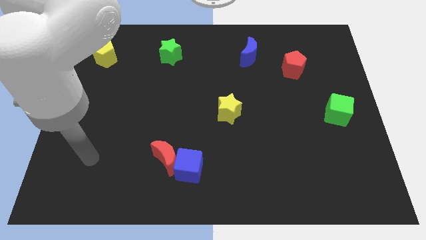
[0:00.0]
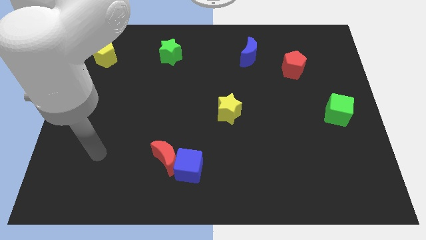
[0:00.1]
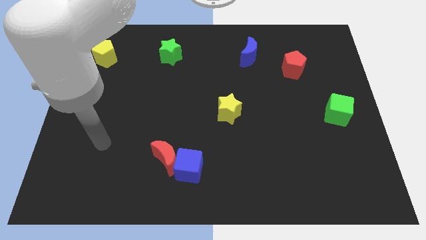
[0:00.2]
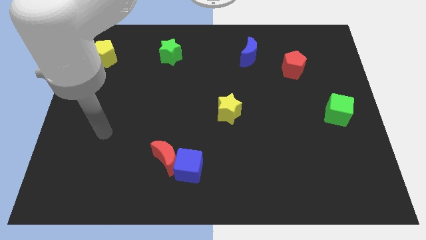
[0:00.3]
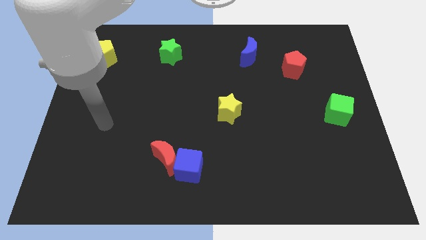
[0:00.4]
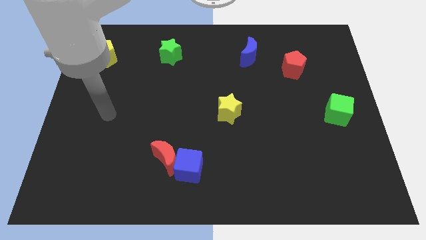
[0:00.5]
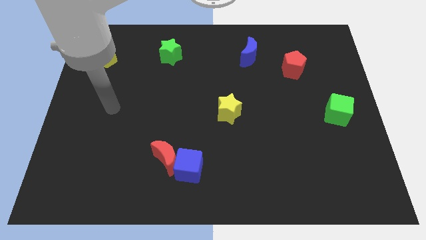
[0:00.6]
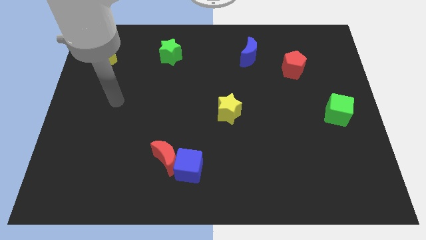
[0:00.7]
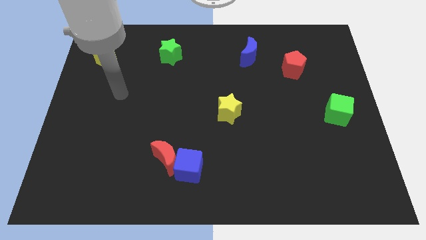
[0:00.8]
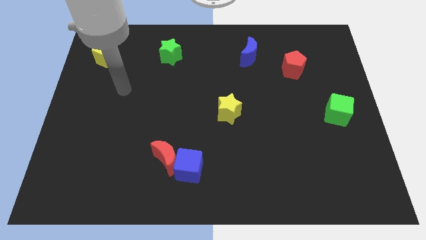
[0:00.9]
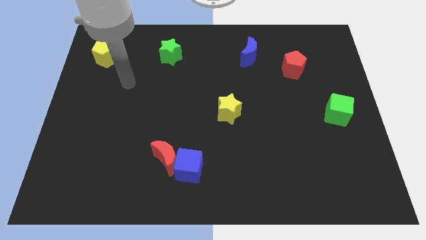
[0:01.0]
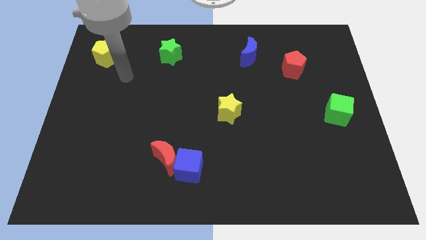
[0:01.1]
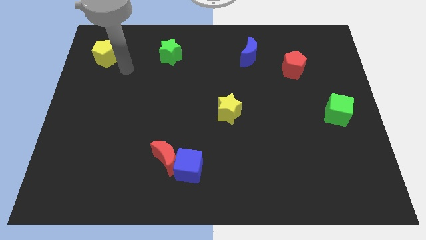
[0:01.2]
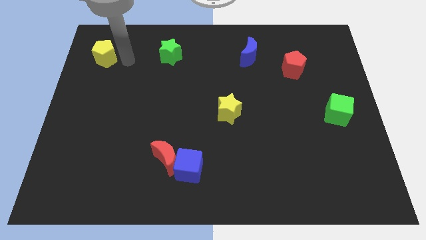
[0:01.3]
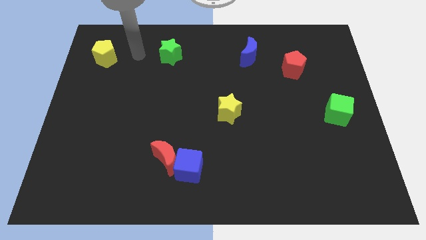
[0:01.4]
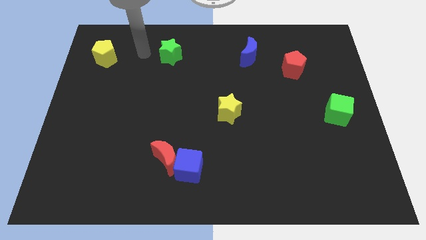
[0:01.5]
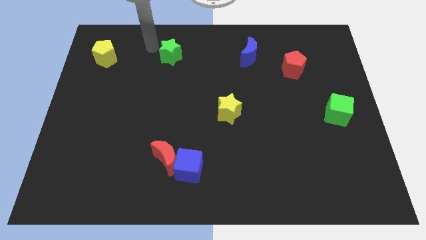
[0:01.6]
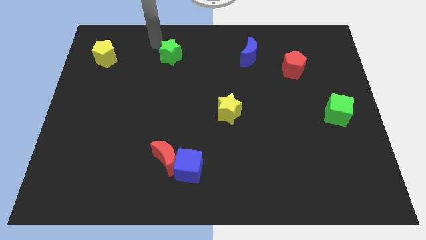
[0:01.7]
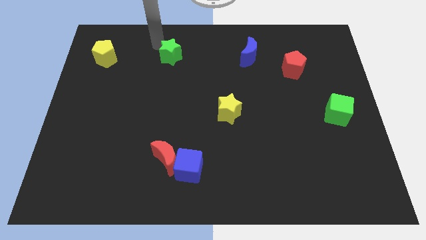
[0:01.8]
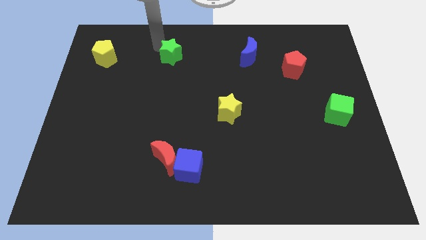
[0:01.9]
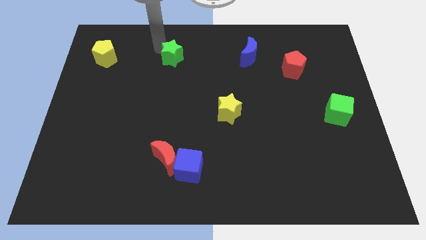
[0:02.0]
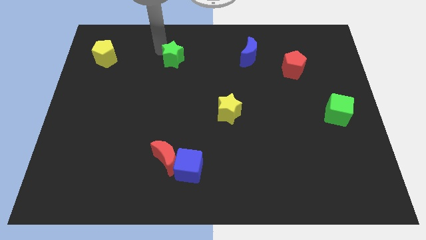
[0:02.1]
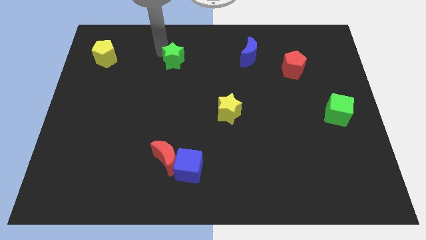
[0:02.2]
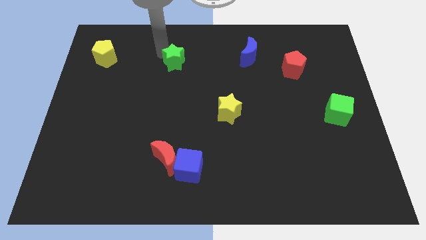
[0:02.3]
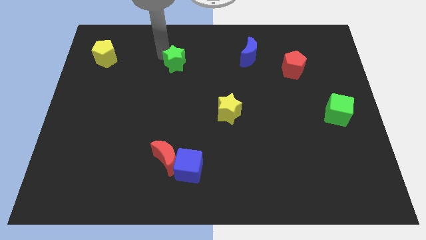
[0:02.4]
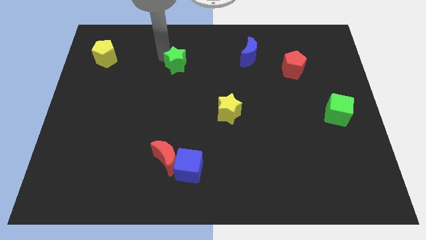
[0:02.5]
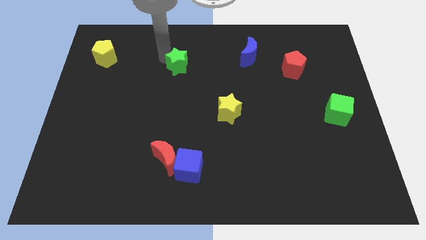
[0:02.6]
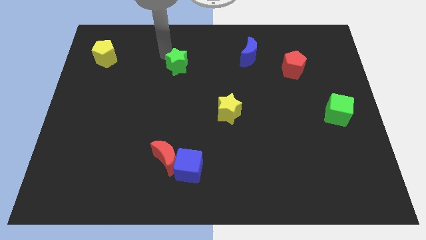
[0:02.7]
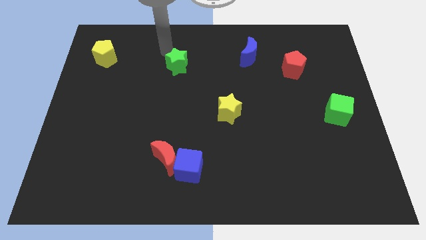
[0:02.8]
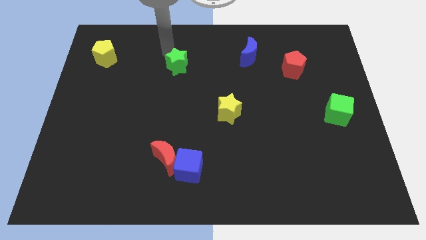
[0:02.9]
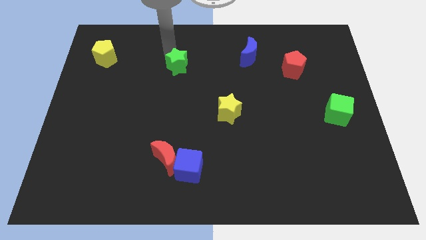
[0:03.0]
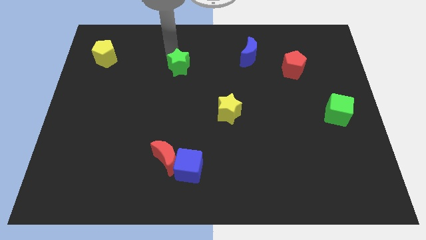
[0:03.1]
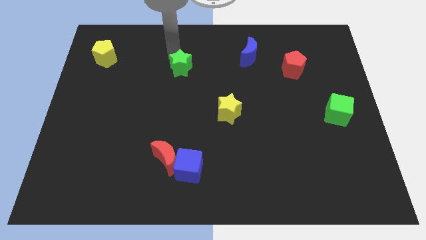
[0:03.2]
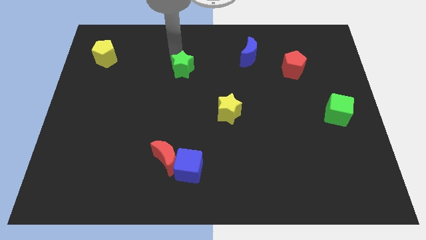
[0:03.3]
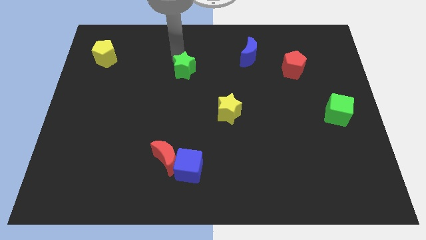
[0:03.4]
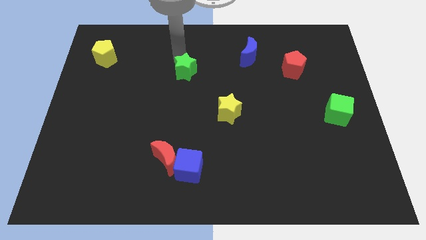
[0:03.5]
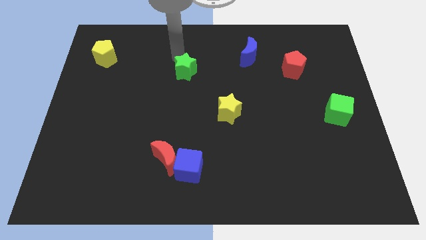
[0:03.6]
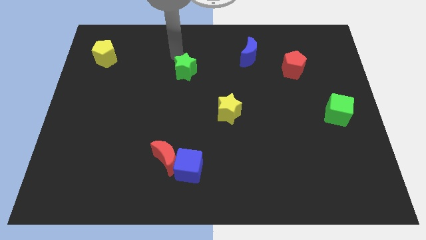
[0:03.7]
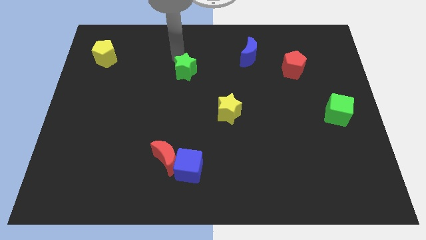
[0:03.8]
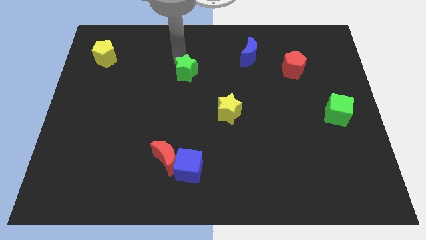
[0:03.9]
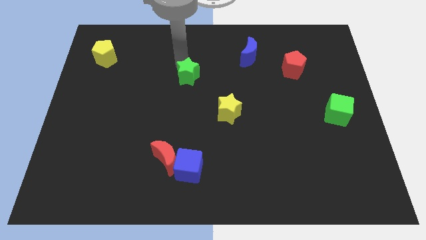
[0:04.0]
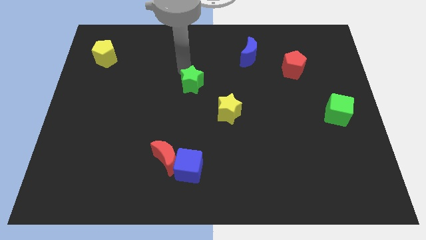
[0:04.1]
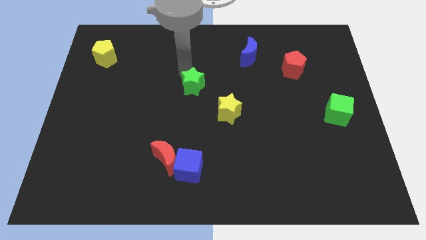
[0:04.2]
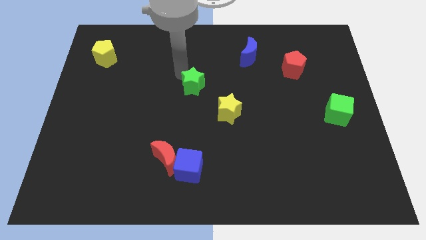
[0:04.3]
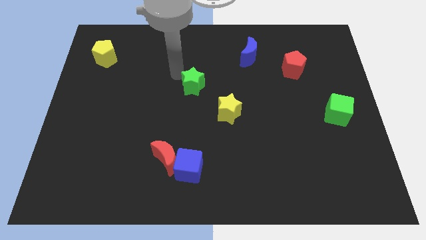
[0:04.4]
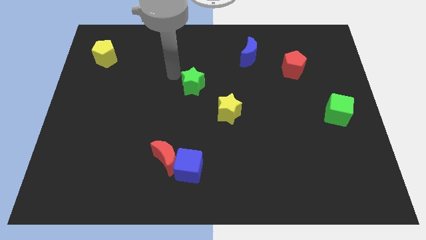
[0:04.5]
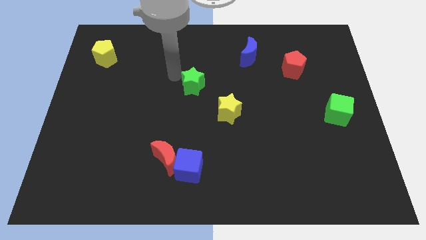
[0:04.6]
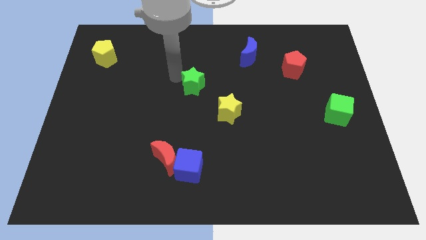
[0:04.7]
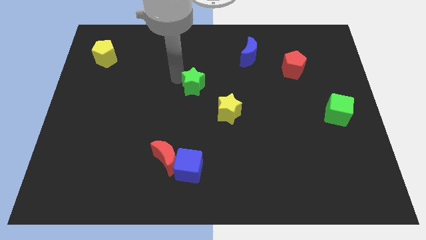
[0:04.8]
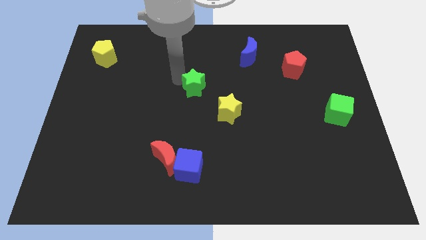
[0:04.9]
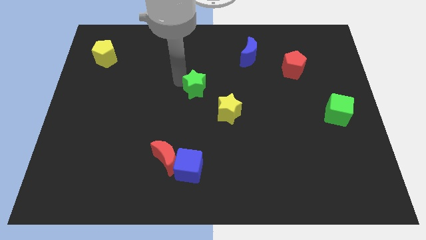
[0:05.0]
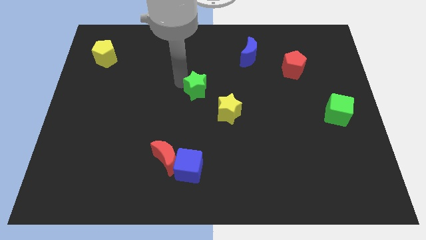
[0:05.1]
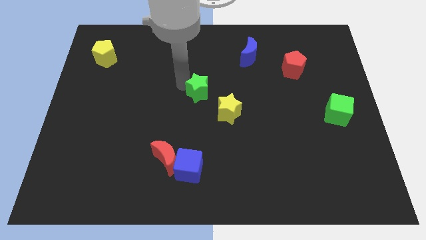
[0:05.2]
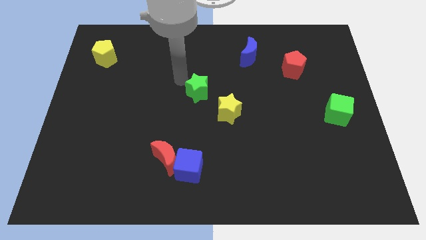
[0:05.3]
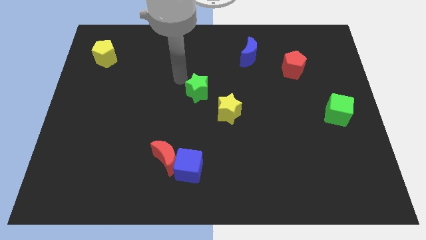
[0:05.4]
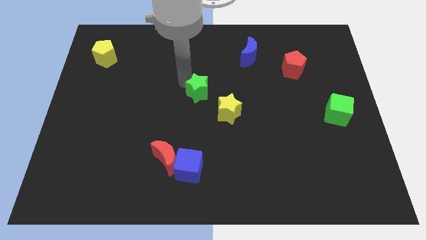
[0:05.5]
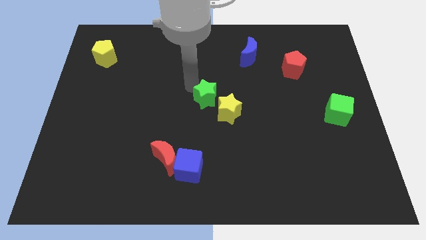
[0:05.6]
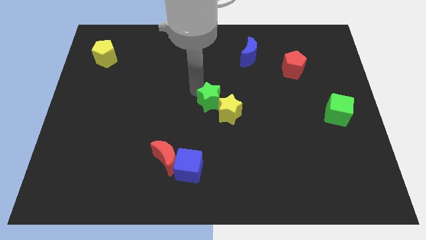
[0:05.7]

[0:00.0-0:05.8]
put the green star towards the yellow star

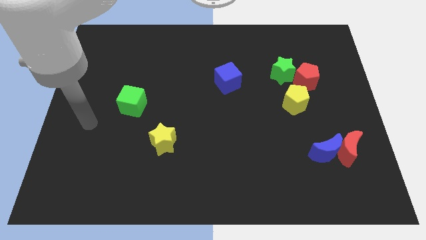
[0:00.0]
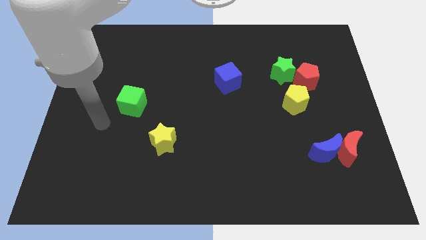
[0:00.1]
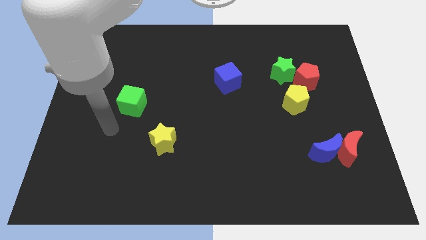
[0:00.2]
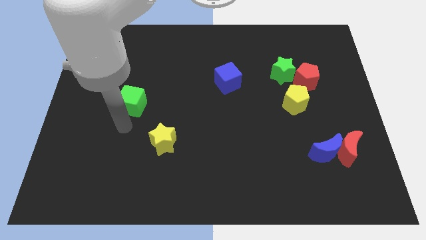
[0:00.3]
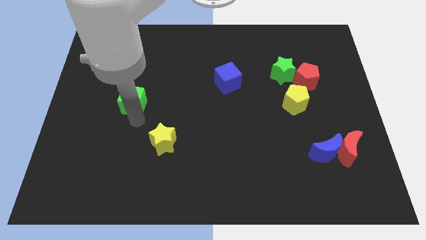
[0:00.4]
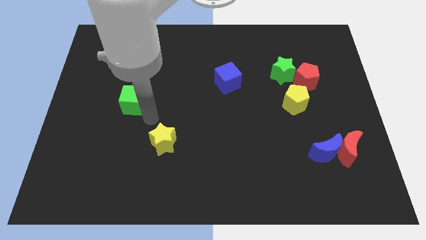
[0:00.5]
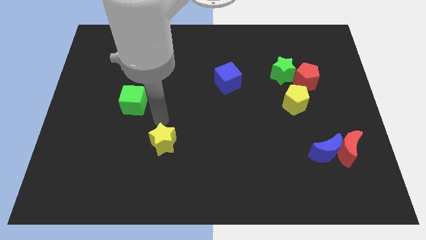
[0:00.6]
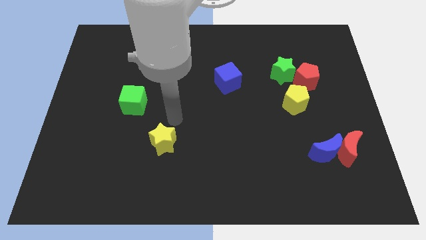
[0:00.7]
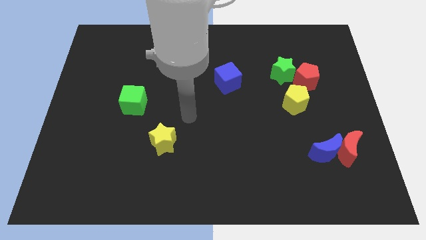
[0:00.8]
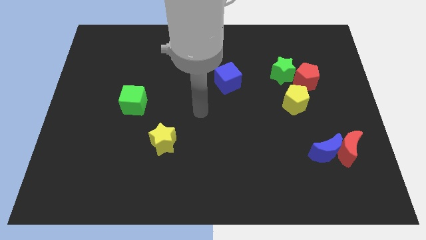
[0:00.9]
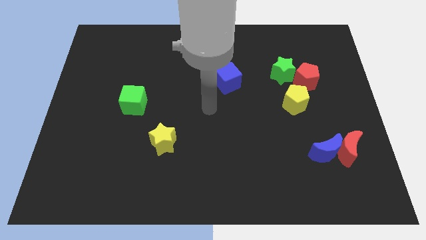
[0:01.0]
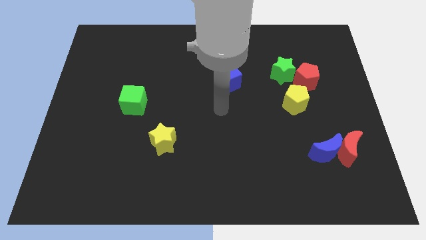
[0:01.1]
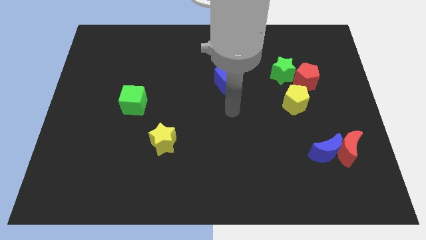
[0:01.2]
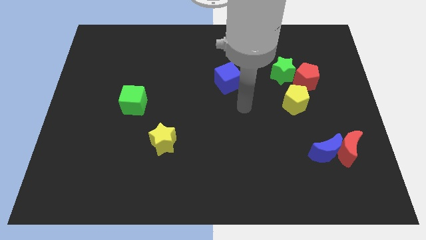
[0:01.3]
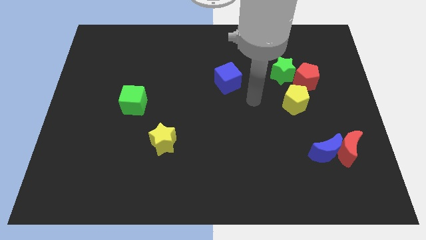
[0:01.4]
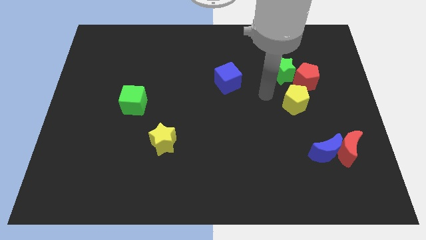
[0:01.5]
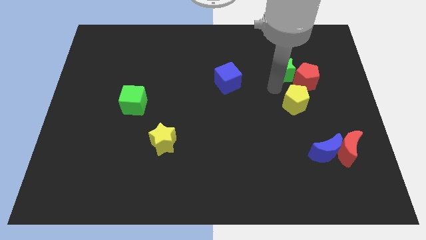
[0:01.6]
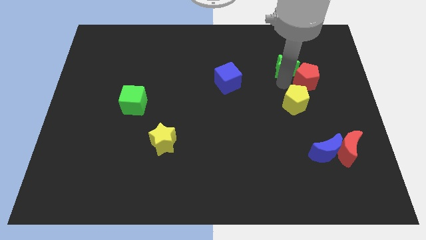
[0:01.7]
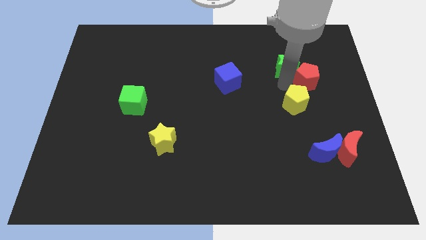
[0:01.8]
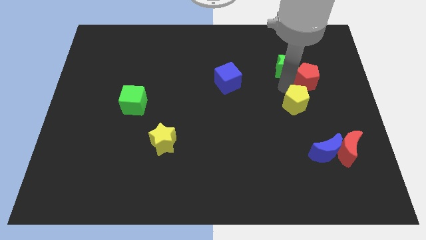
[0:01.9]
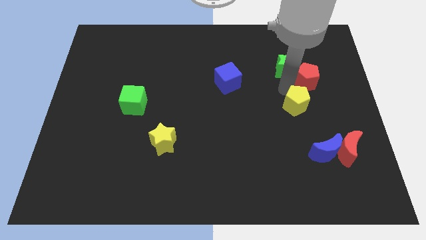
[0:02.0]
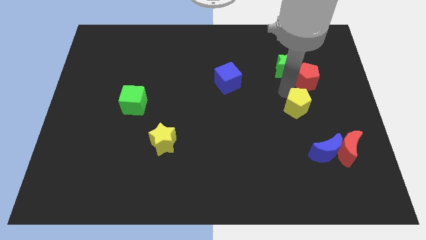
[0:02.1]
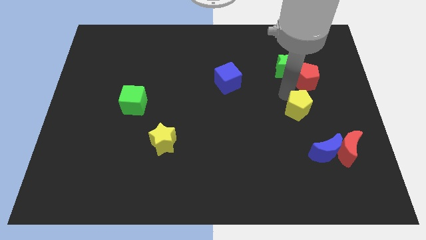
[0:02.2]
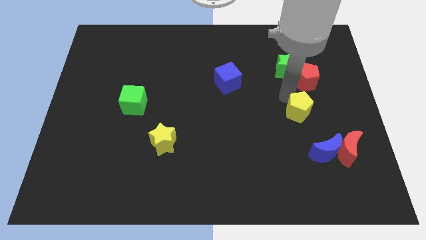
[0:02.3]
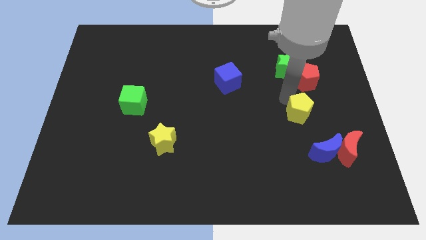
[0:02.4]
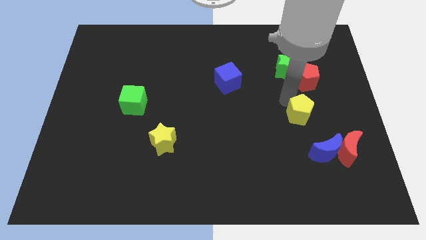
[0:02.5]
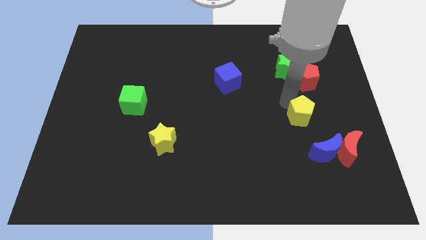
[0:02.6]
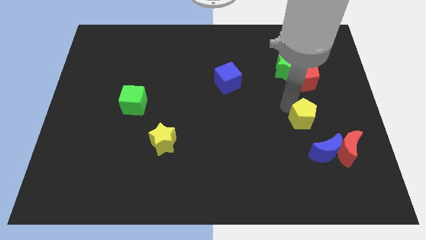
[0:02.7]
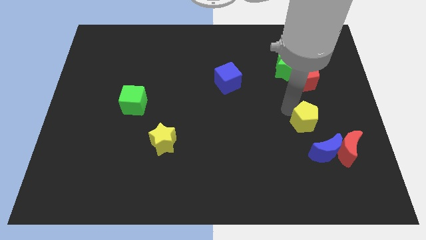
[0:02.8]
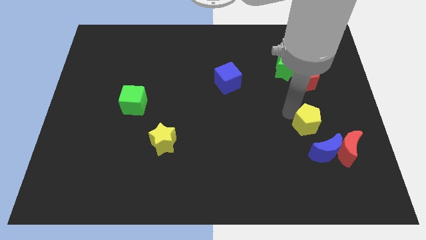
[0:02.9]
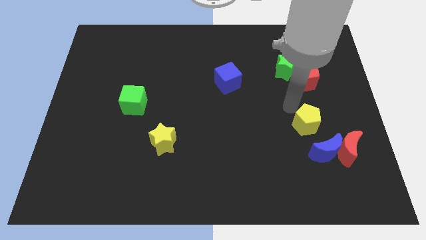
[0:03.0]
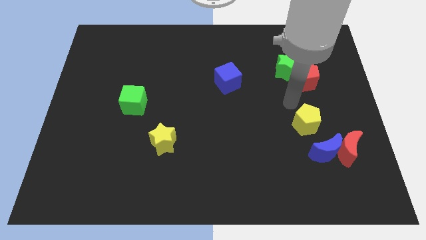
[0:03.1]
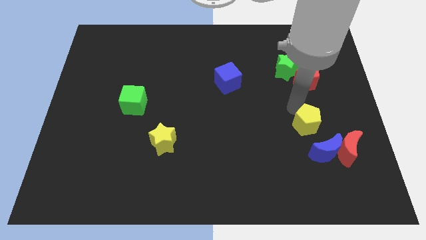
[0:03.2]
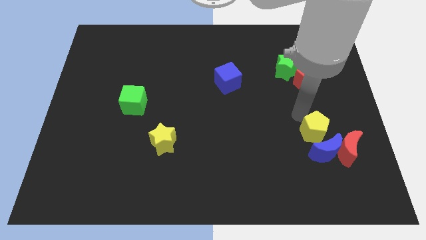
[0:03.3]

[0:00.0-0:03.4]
push the yellow pentagon next to the blue moon
